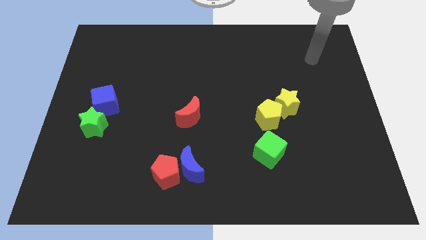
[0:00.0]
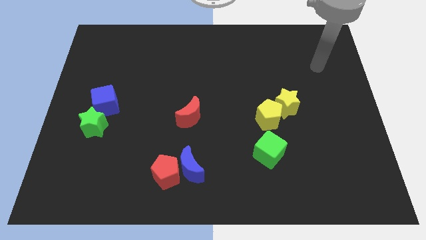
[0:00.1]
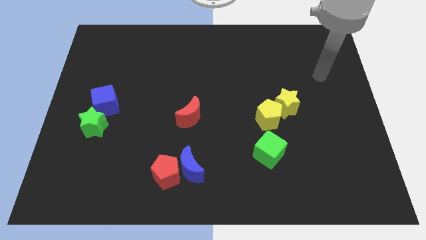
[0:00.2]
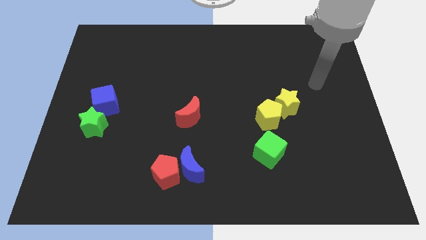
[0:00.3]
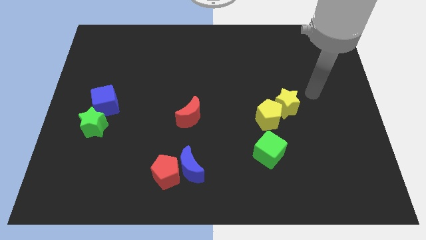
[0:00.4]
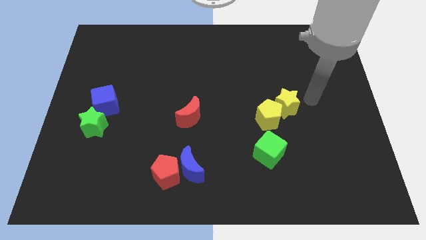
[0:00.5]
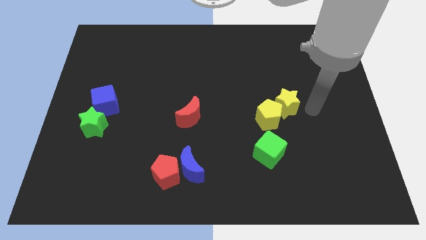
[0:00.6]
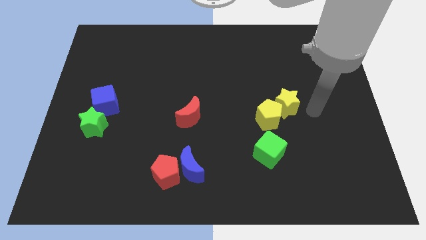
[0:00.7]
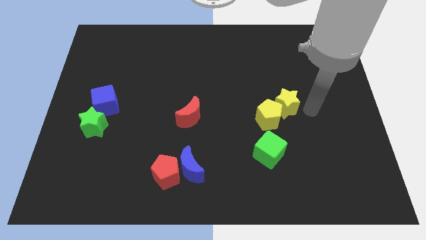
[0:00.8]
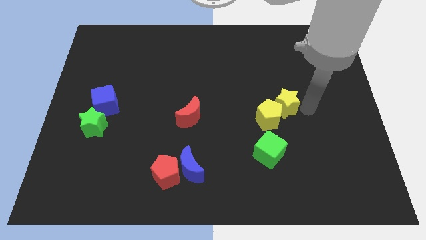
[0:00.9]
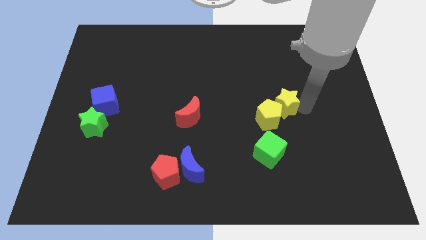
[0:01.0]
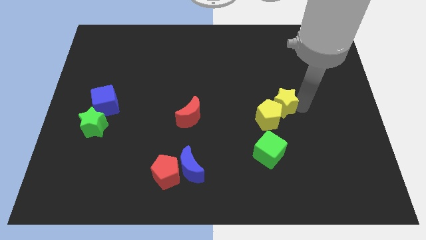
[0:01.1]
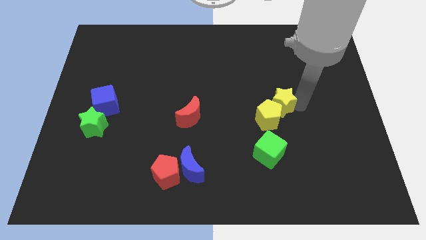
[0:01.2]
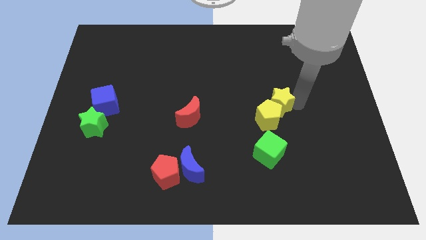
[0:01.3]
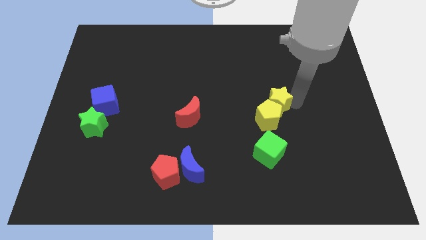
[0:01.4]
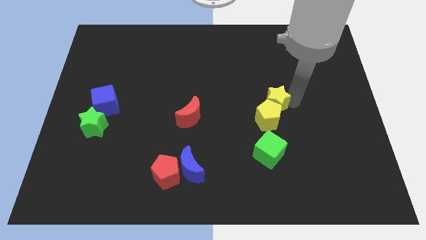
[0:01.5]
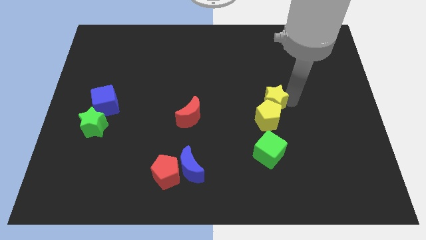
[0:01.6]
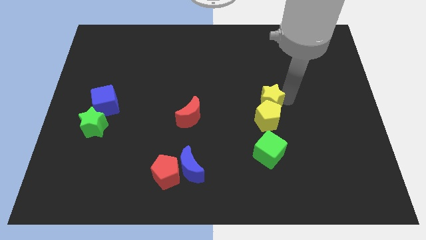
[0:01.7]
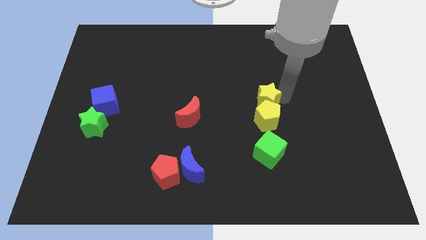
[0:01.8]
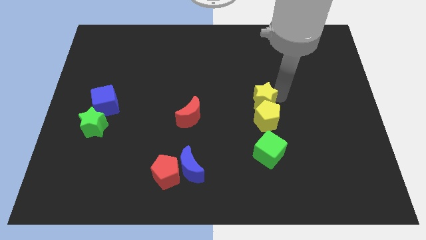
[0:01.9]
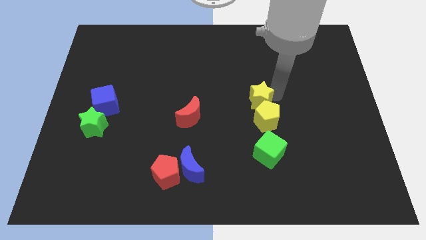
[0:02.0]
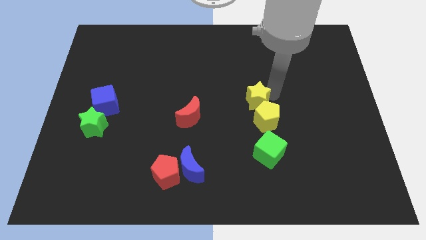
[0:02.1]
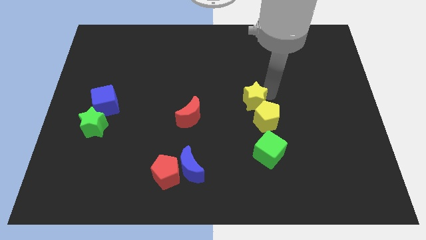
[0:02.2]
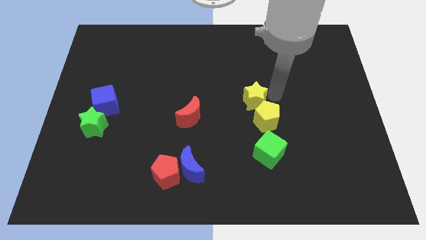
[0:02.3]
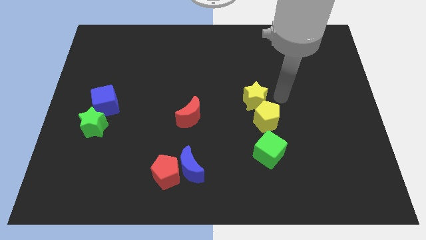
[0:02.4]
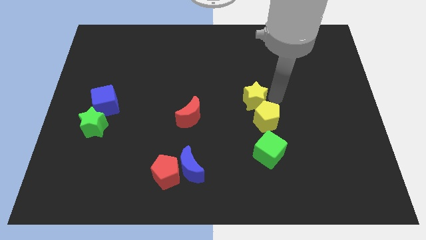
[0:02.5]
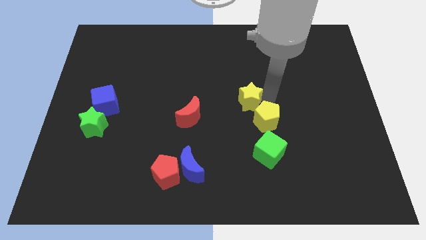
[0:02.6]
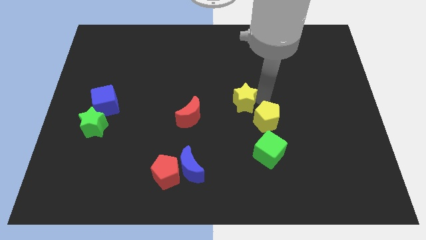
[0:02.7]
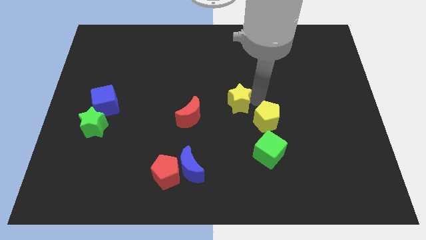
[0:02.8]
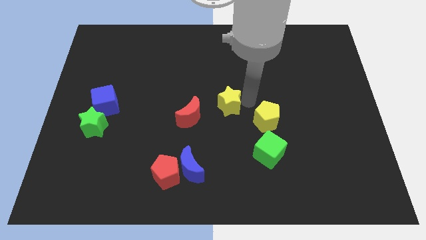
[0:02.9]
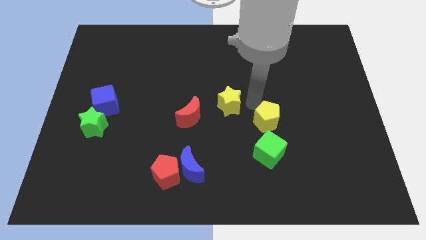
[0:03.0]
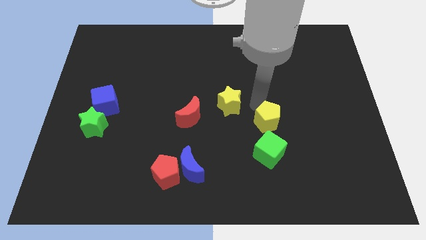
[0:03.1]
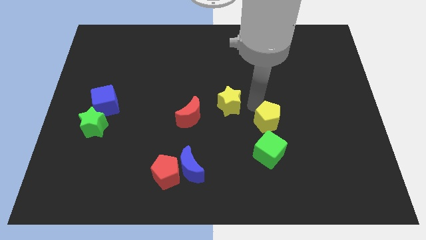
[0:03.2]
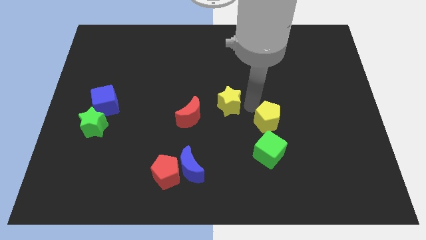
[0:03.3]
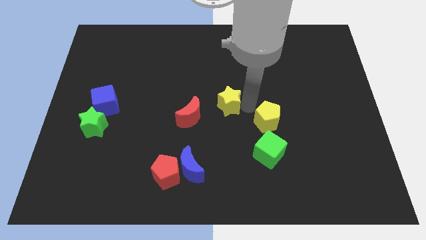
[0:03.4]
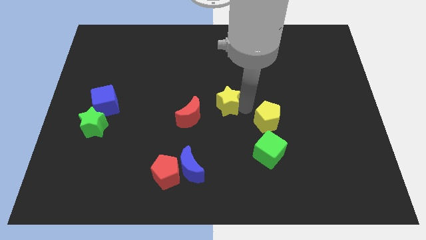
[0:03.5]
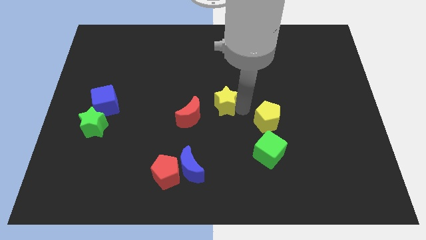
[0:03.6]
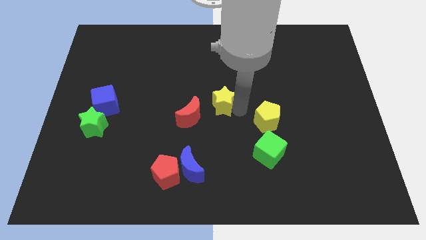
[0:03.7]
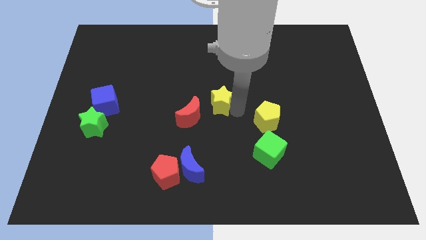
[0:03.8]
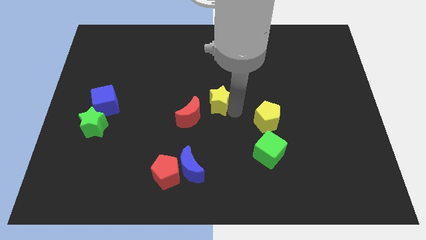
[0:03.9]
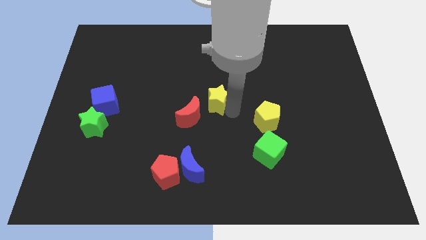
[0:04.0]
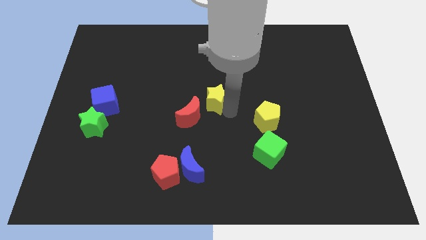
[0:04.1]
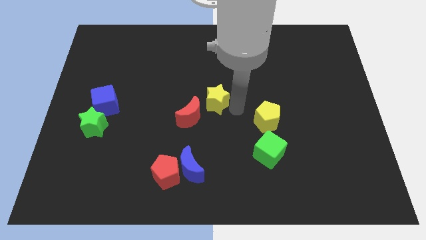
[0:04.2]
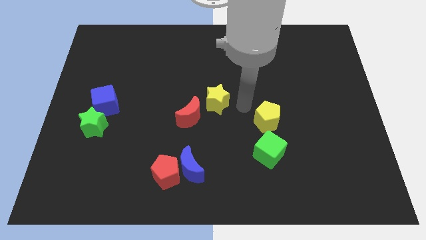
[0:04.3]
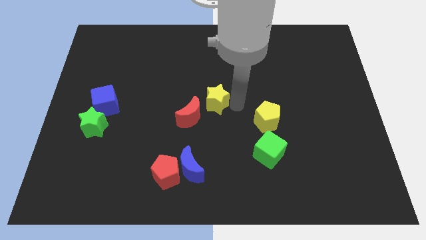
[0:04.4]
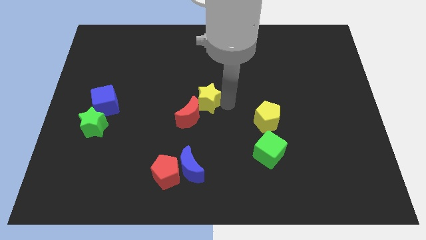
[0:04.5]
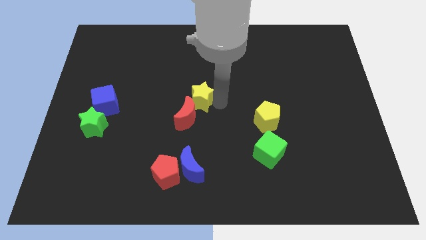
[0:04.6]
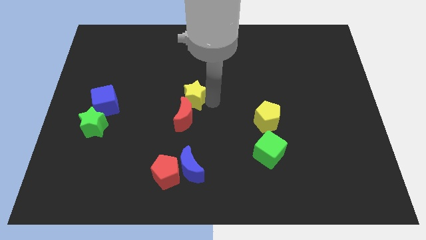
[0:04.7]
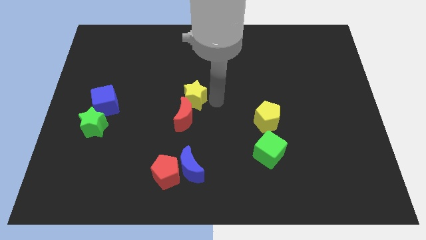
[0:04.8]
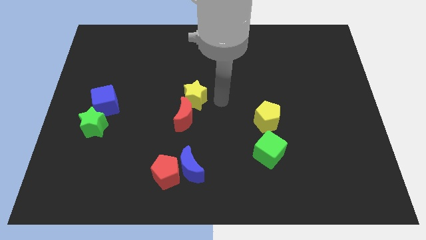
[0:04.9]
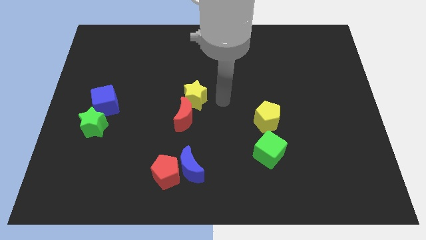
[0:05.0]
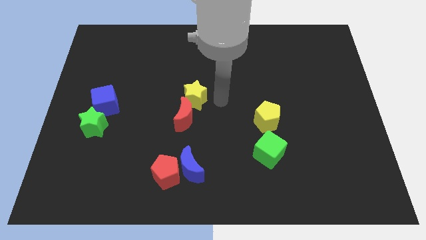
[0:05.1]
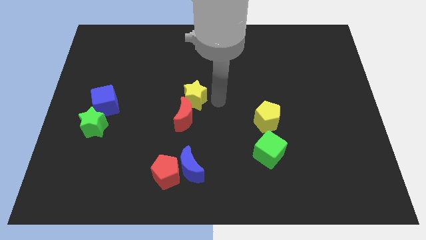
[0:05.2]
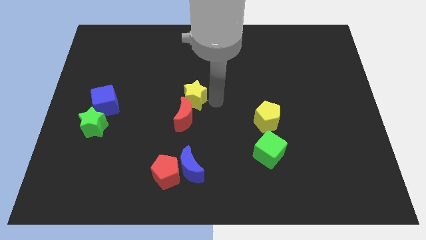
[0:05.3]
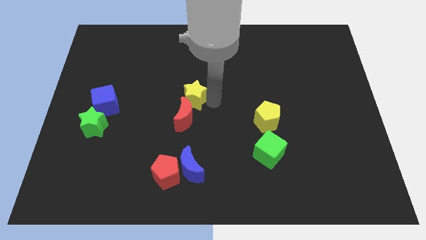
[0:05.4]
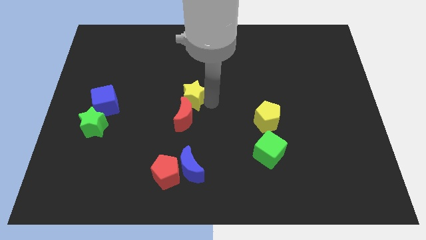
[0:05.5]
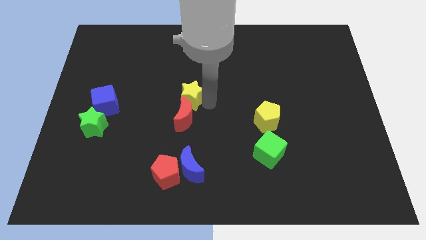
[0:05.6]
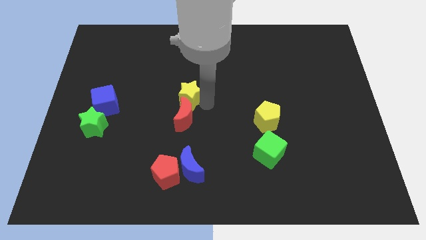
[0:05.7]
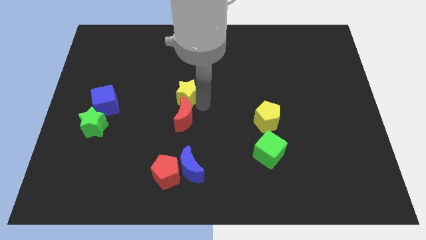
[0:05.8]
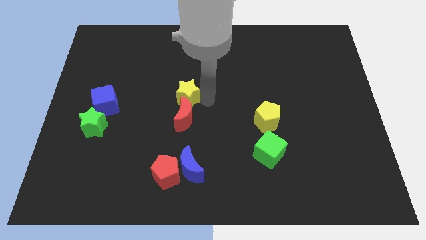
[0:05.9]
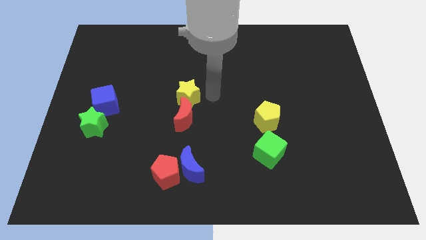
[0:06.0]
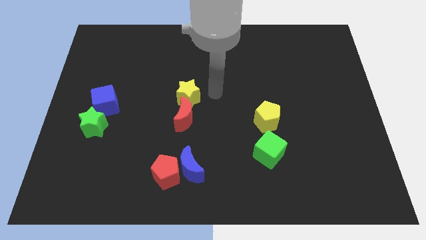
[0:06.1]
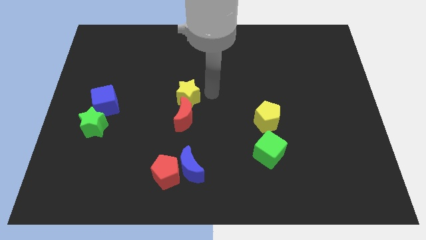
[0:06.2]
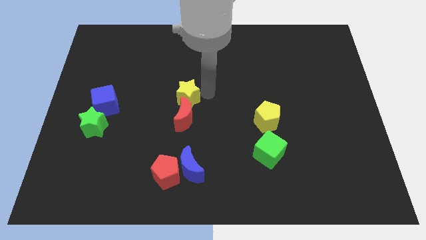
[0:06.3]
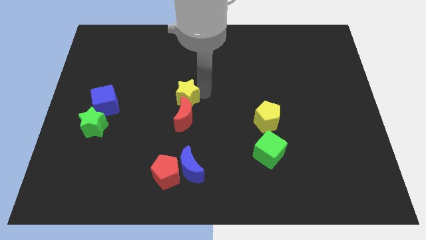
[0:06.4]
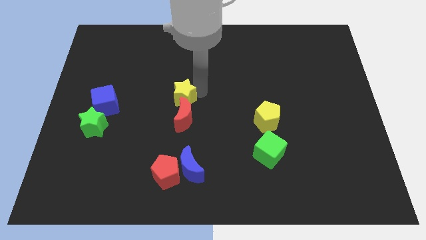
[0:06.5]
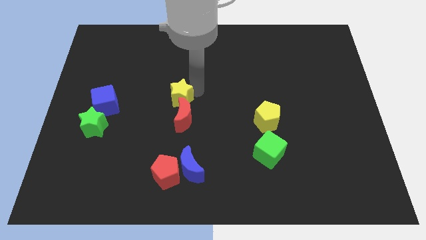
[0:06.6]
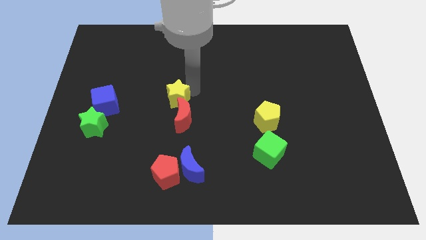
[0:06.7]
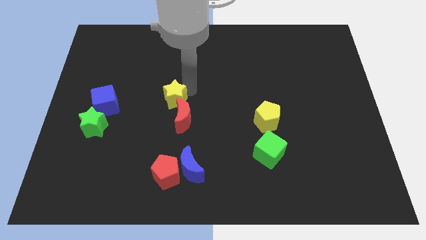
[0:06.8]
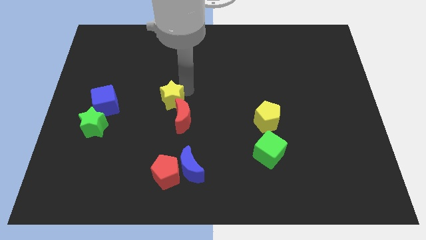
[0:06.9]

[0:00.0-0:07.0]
put the yellow star right of the blue cube

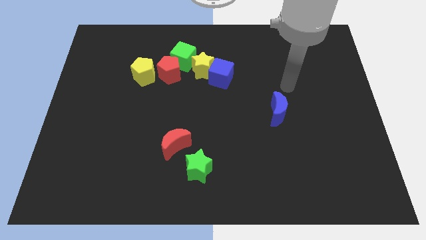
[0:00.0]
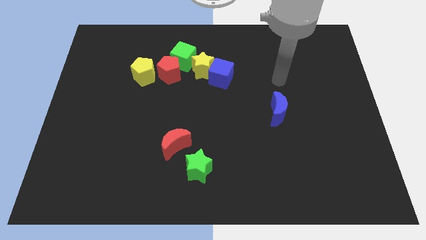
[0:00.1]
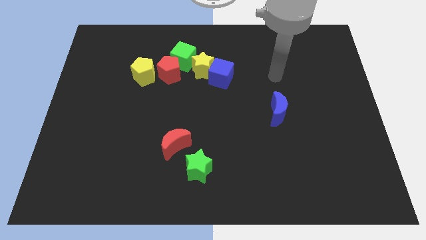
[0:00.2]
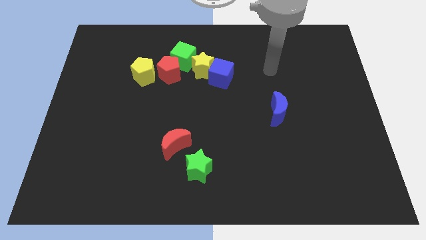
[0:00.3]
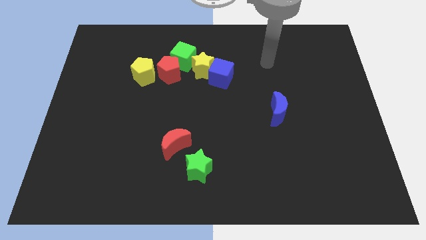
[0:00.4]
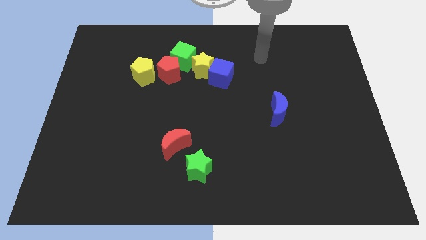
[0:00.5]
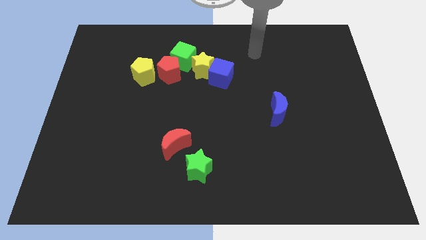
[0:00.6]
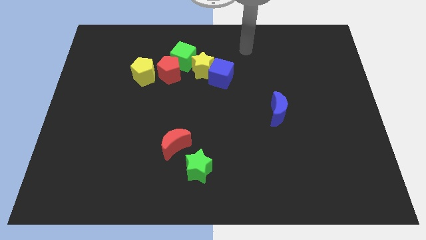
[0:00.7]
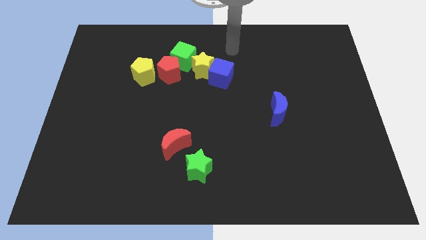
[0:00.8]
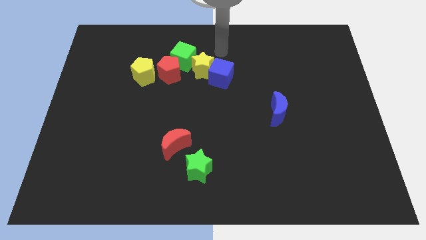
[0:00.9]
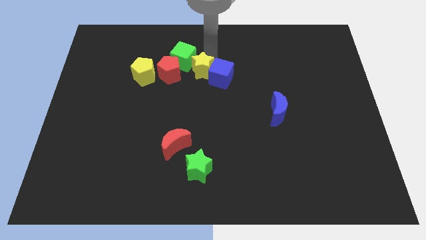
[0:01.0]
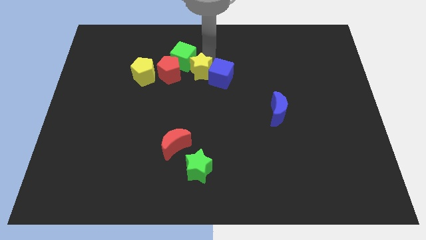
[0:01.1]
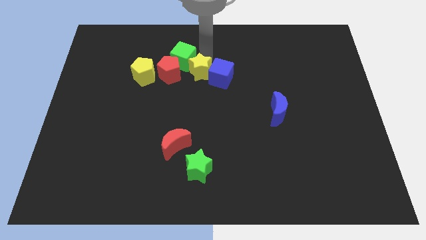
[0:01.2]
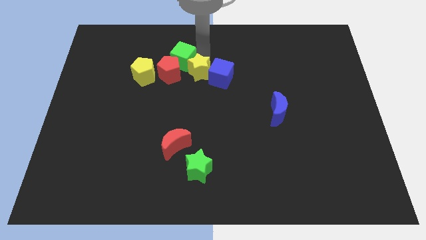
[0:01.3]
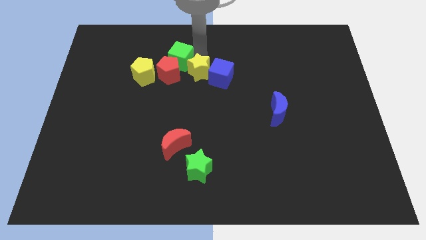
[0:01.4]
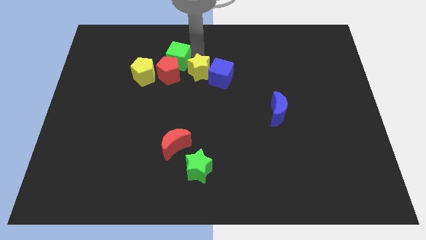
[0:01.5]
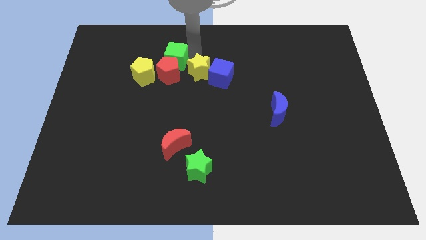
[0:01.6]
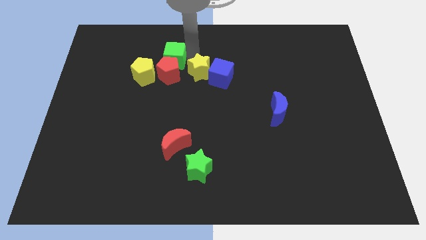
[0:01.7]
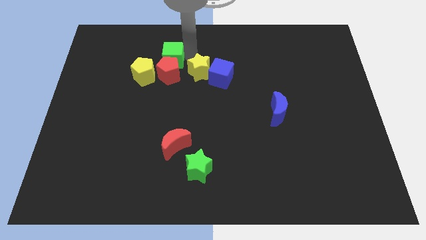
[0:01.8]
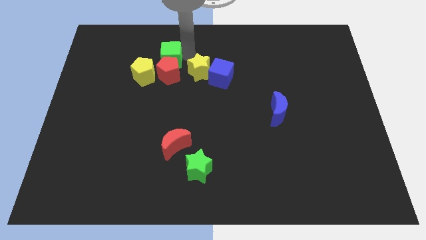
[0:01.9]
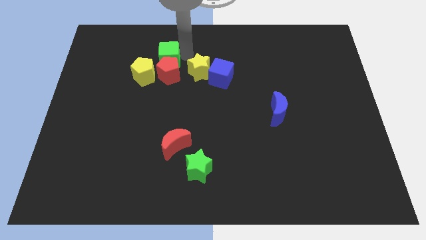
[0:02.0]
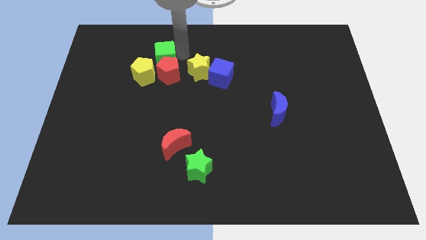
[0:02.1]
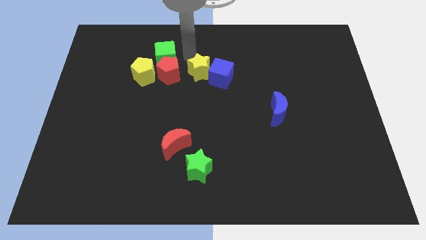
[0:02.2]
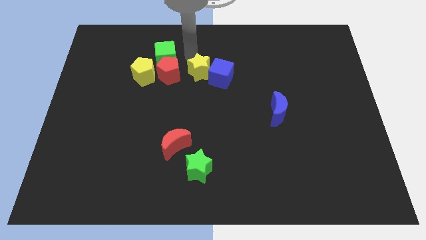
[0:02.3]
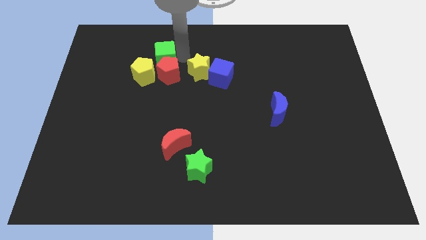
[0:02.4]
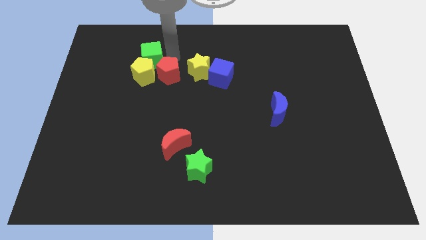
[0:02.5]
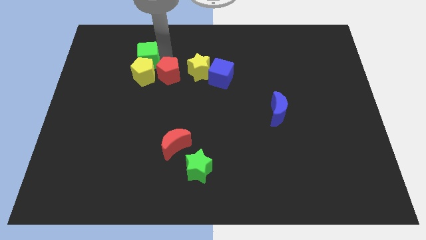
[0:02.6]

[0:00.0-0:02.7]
put the green cube diagonally up and to the left of the yellow pentagon
